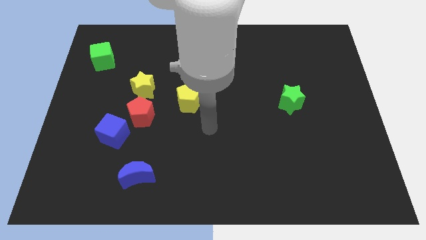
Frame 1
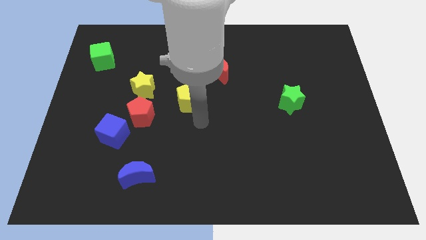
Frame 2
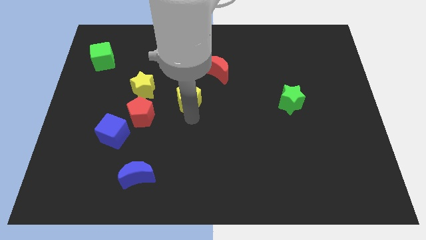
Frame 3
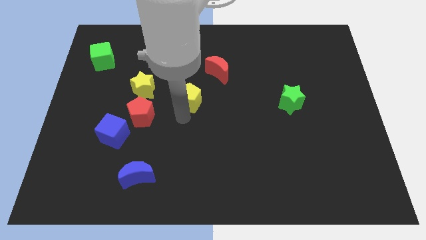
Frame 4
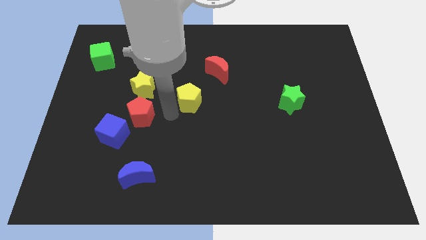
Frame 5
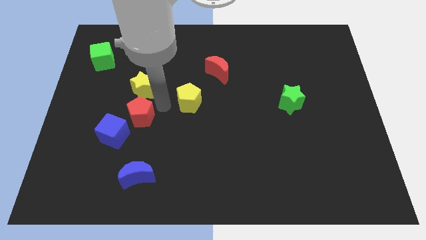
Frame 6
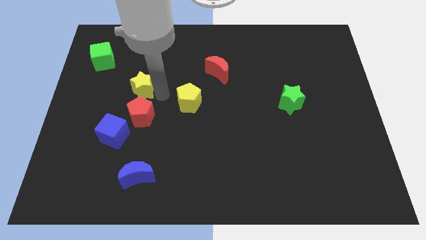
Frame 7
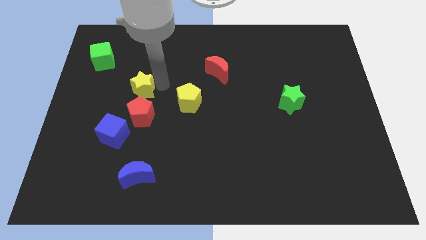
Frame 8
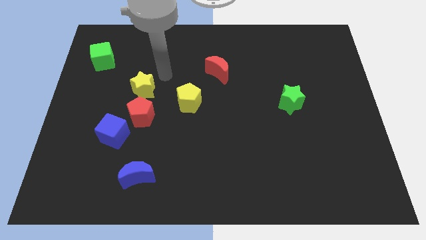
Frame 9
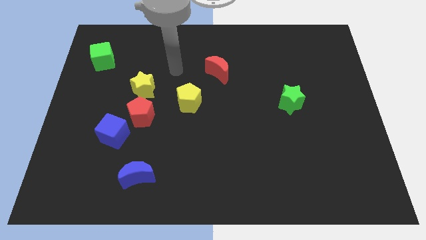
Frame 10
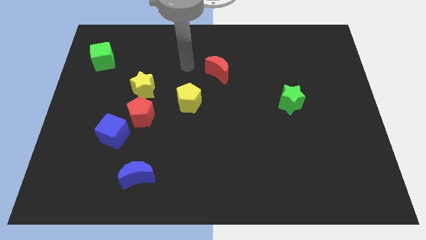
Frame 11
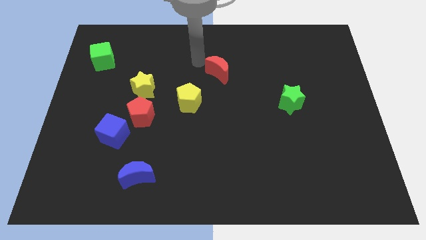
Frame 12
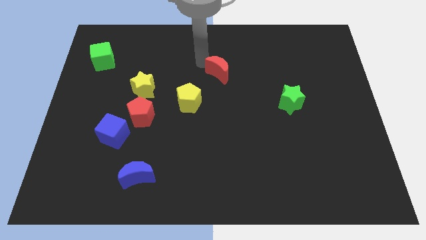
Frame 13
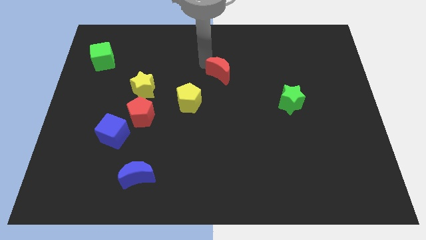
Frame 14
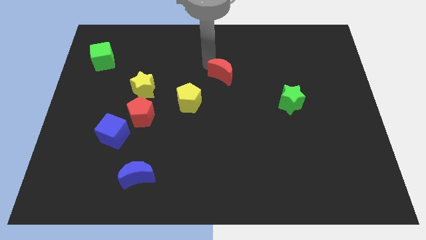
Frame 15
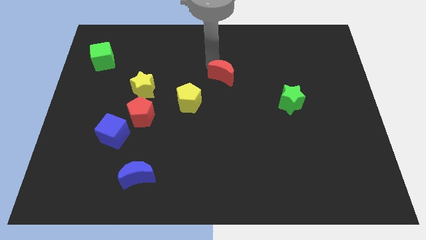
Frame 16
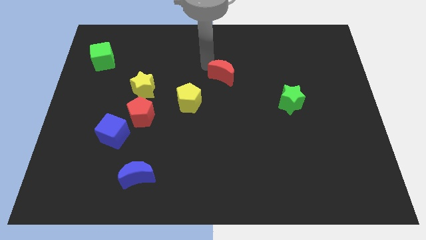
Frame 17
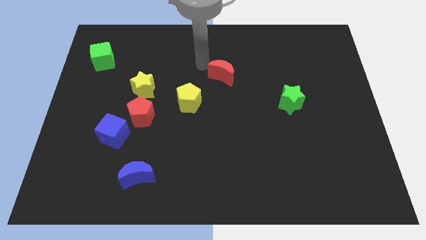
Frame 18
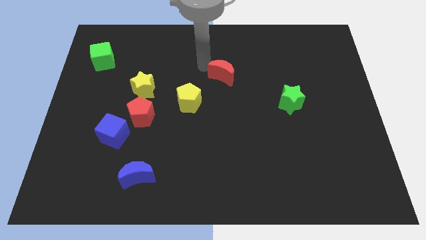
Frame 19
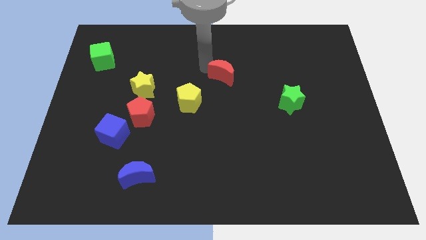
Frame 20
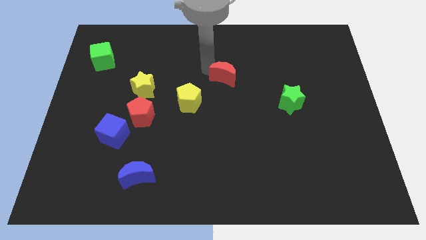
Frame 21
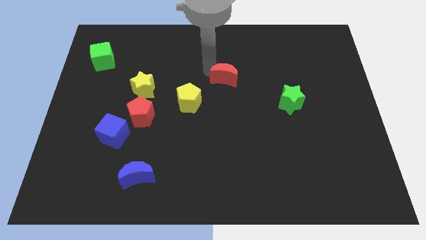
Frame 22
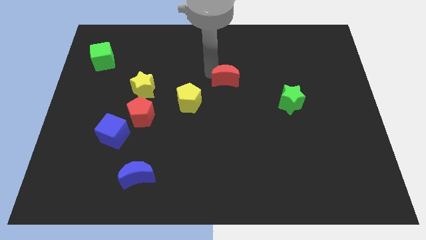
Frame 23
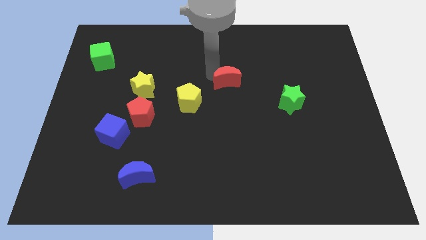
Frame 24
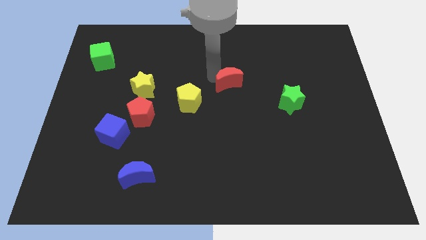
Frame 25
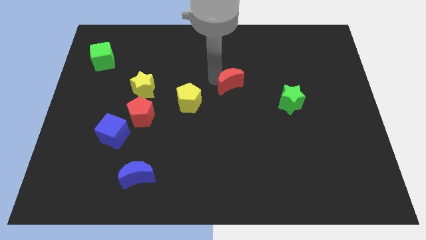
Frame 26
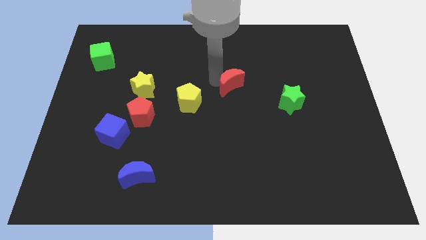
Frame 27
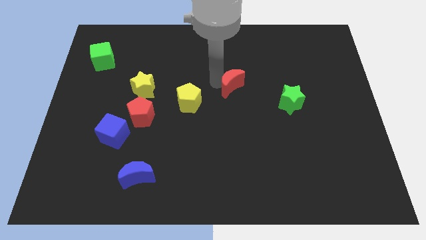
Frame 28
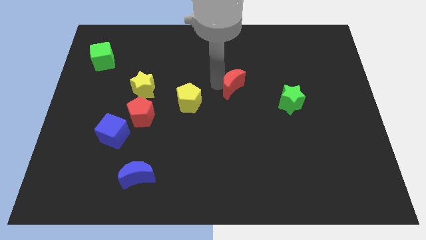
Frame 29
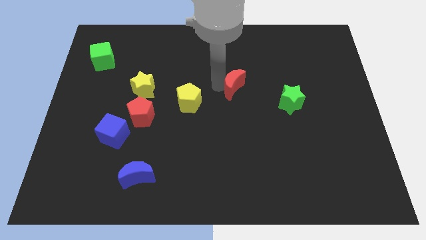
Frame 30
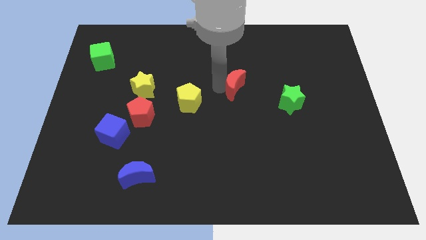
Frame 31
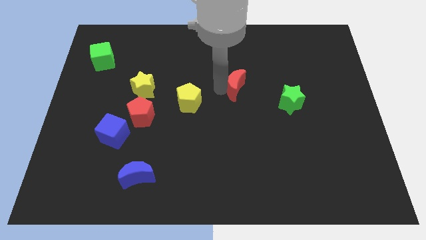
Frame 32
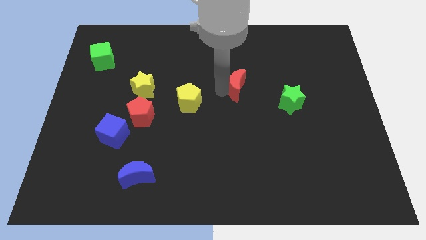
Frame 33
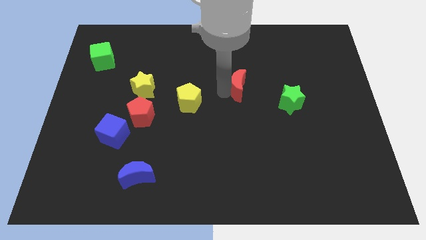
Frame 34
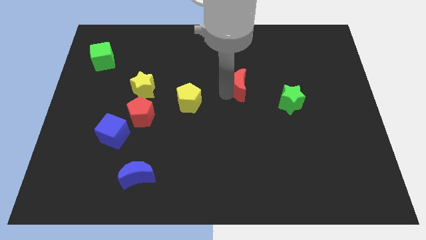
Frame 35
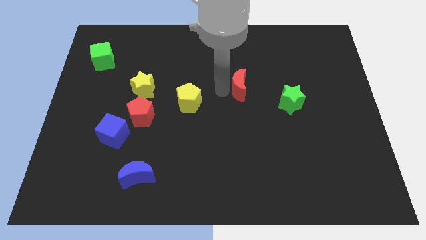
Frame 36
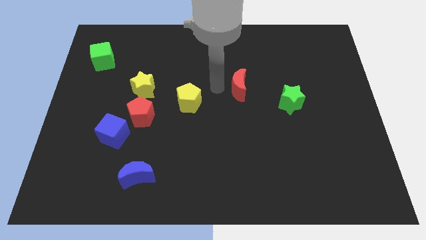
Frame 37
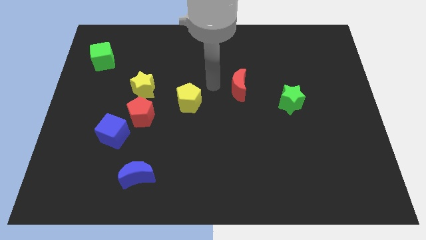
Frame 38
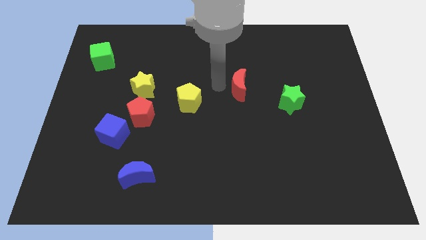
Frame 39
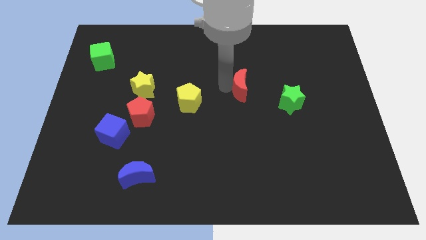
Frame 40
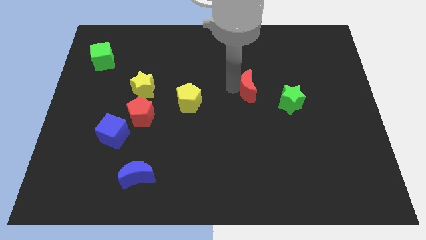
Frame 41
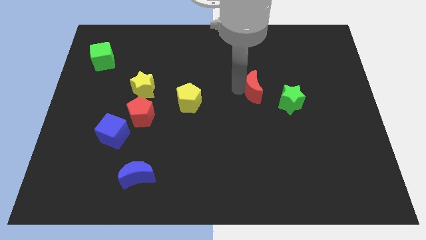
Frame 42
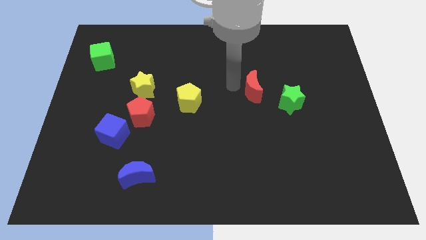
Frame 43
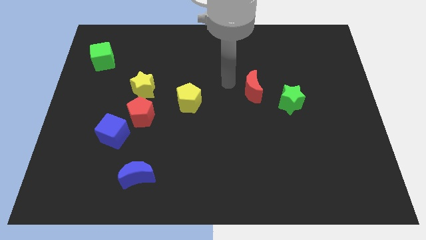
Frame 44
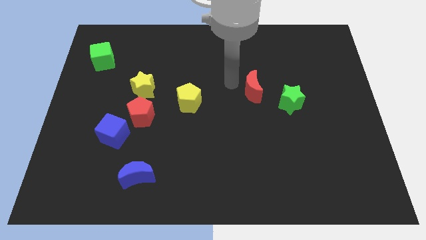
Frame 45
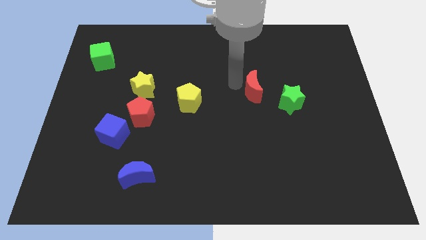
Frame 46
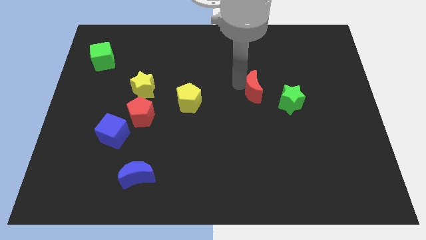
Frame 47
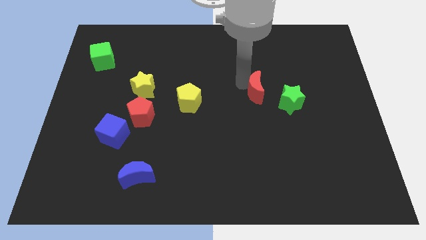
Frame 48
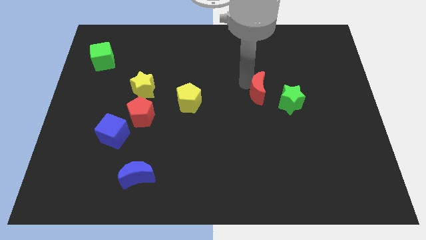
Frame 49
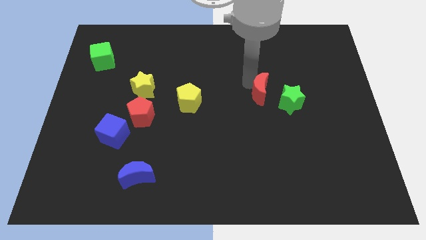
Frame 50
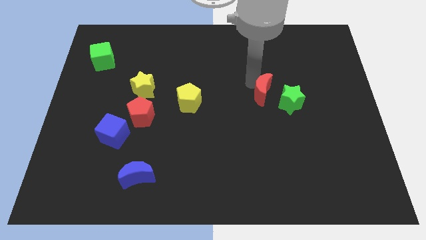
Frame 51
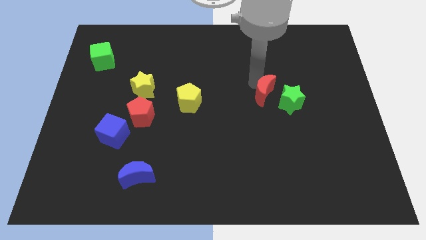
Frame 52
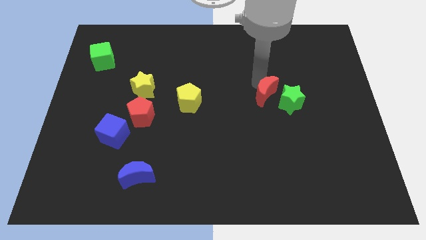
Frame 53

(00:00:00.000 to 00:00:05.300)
push the red moon to the green star

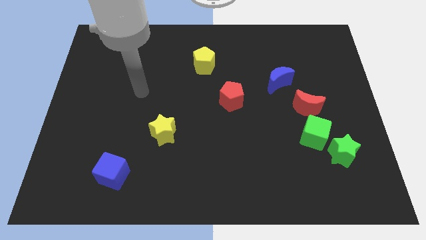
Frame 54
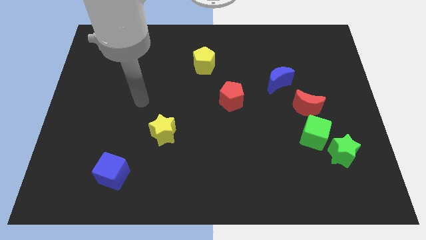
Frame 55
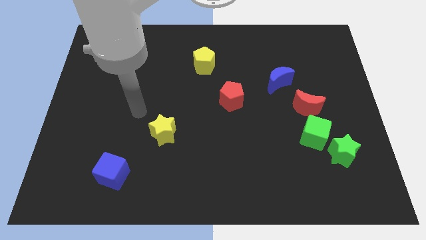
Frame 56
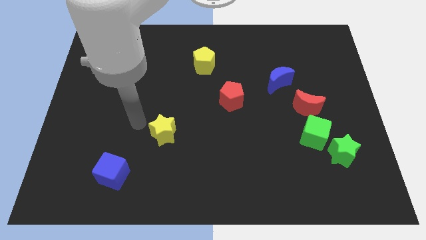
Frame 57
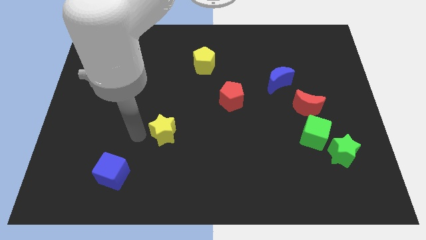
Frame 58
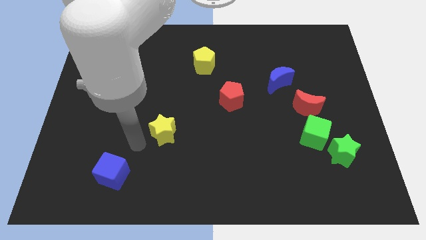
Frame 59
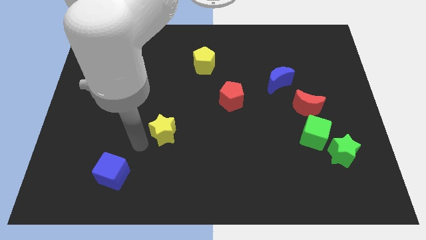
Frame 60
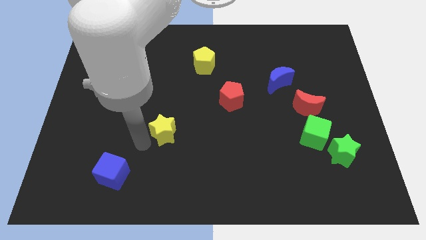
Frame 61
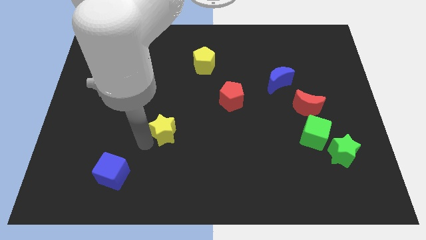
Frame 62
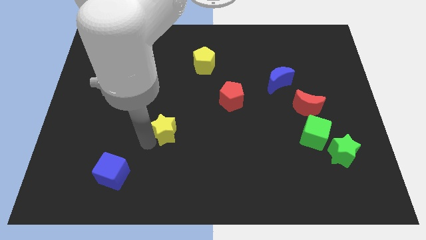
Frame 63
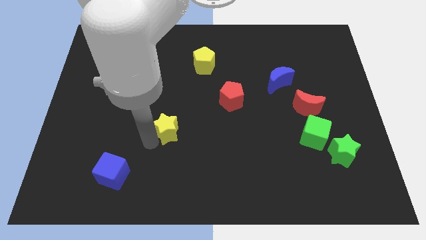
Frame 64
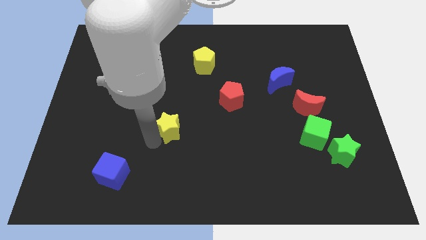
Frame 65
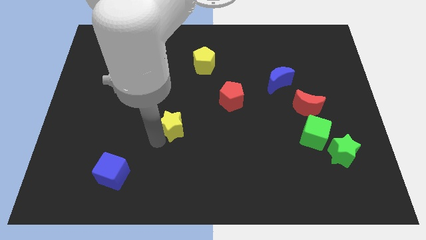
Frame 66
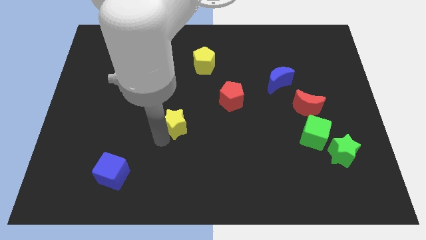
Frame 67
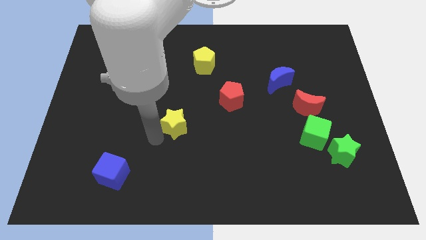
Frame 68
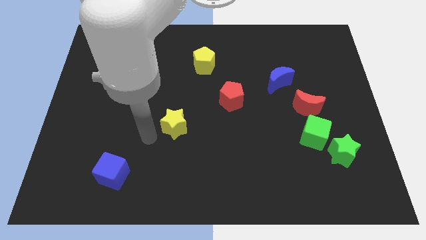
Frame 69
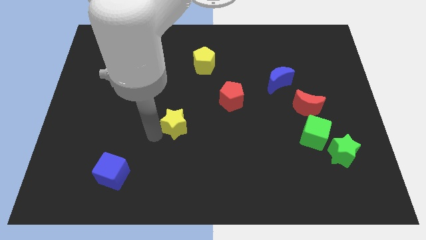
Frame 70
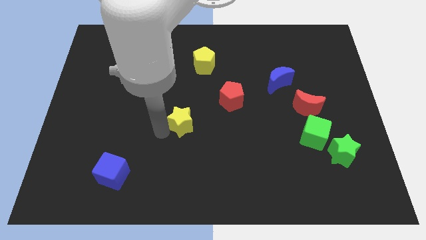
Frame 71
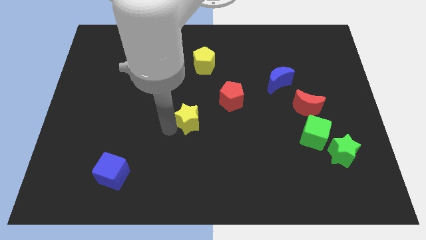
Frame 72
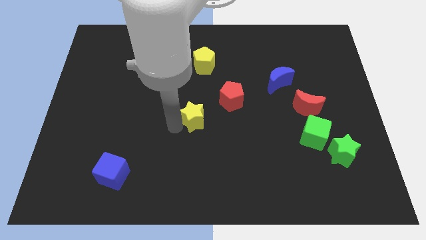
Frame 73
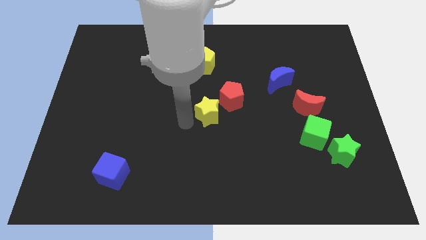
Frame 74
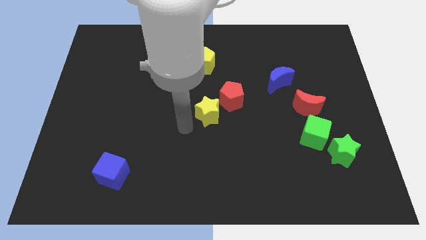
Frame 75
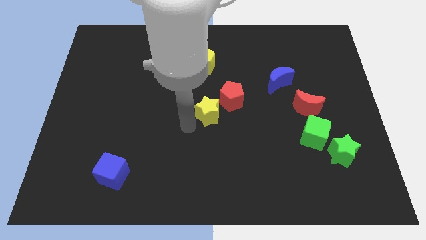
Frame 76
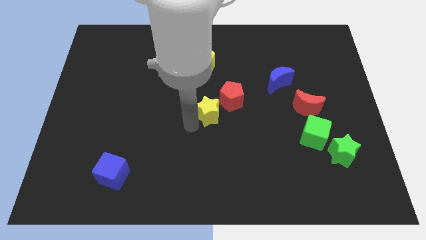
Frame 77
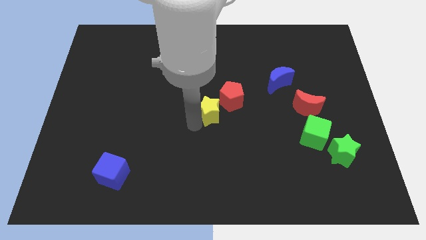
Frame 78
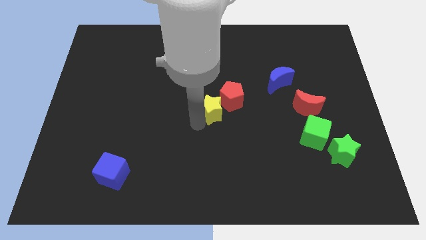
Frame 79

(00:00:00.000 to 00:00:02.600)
slide the yellow star next to the red pentagon
